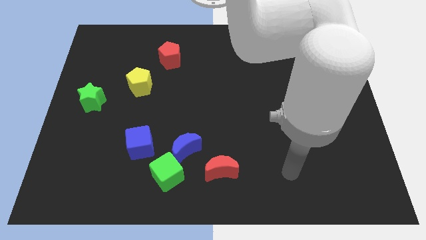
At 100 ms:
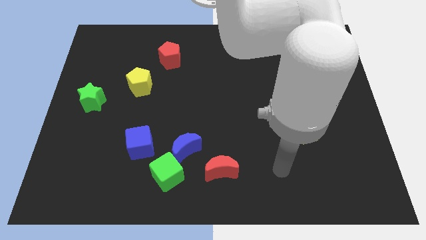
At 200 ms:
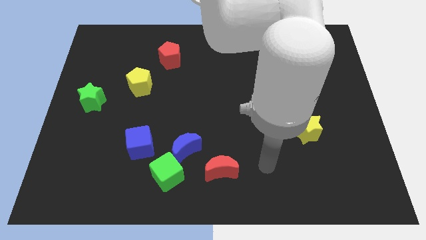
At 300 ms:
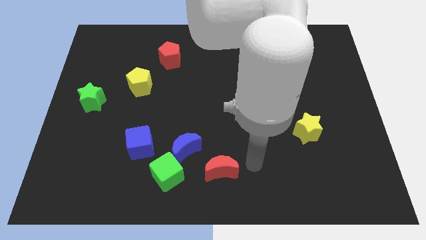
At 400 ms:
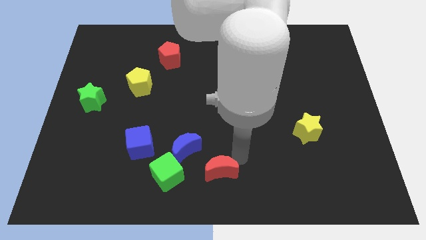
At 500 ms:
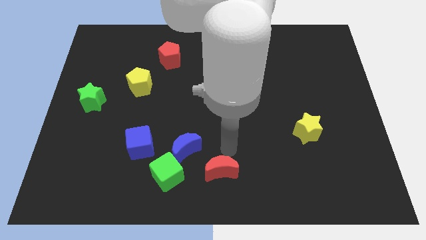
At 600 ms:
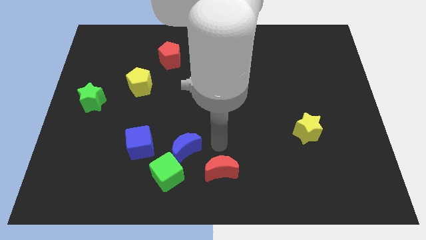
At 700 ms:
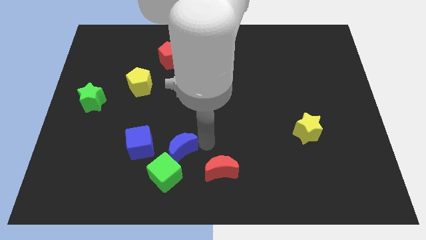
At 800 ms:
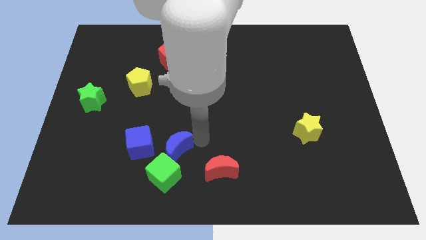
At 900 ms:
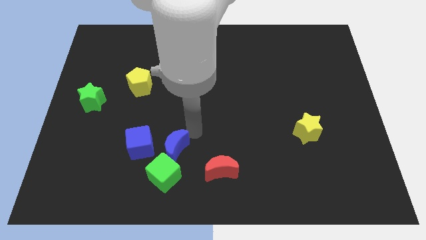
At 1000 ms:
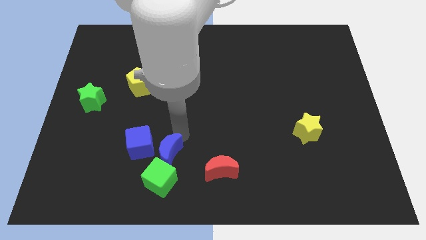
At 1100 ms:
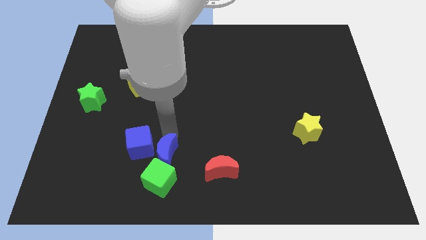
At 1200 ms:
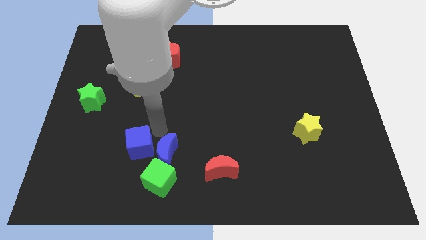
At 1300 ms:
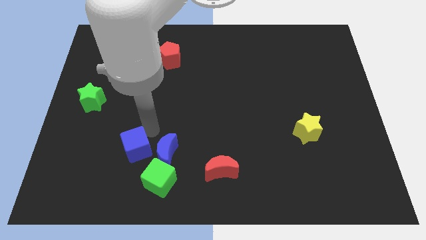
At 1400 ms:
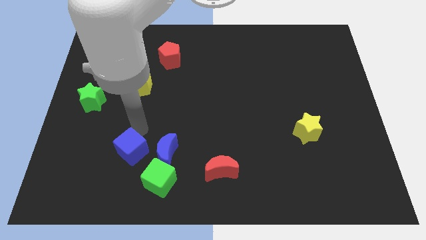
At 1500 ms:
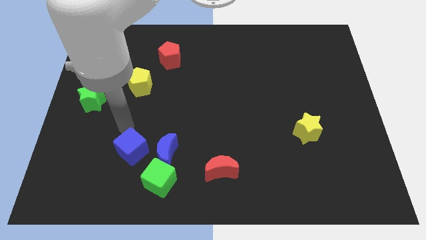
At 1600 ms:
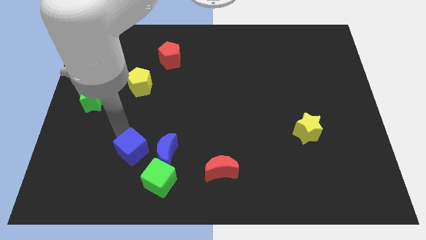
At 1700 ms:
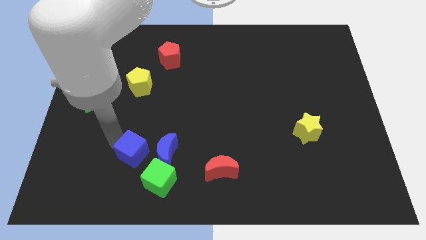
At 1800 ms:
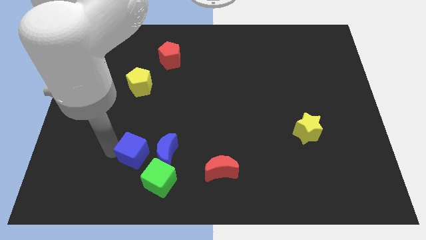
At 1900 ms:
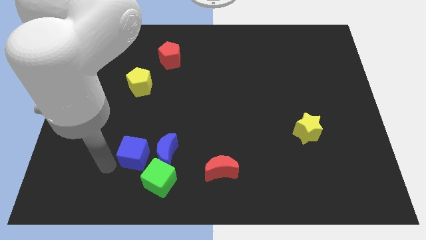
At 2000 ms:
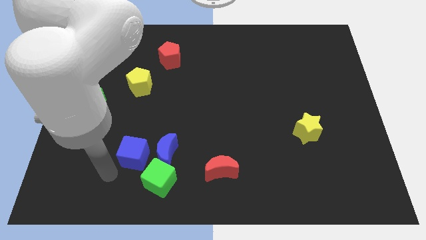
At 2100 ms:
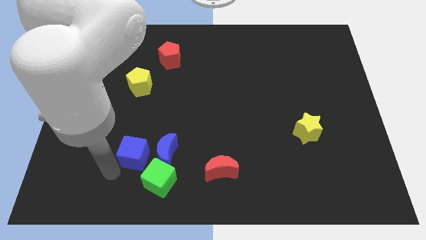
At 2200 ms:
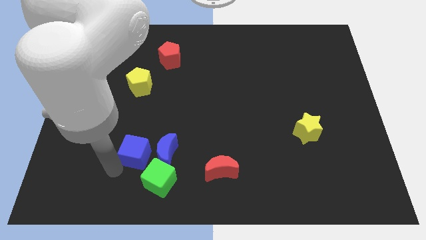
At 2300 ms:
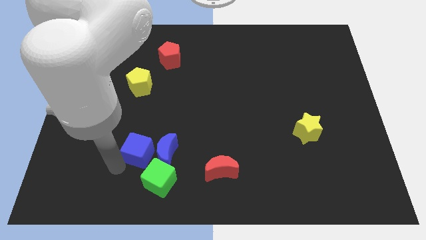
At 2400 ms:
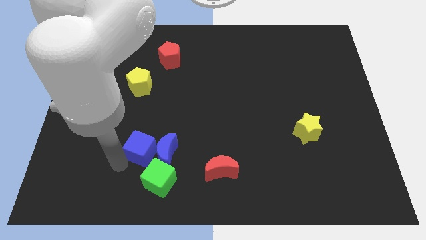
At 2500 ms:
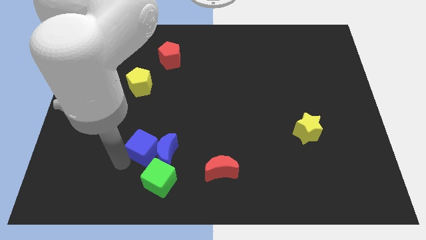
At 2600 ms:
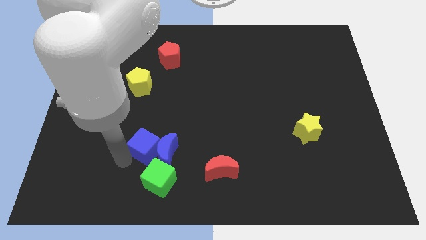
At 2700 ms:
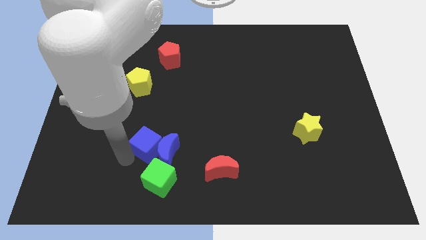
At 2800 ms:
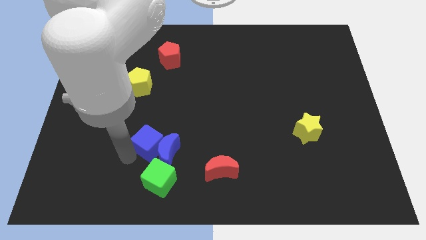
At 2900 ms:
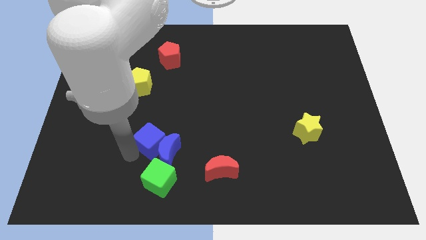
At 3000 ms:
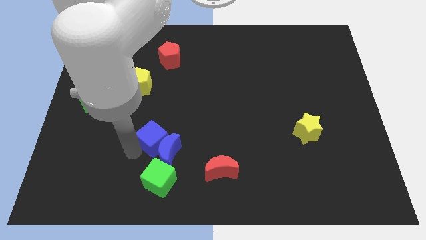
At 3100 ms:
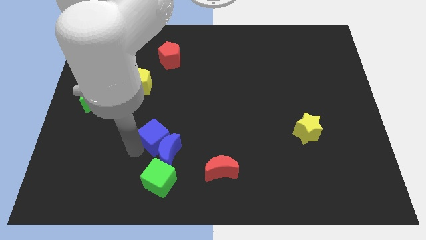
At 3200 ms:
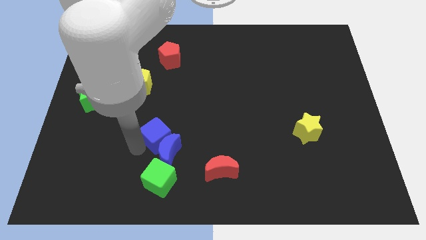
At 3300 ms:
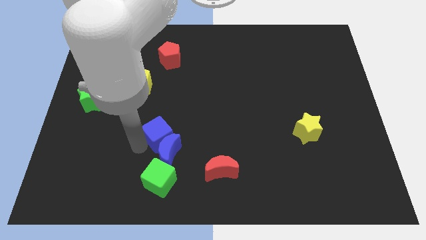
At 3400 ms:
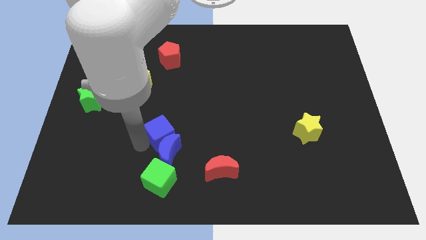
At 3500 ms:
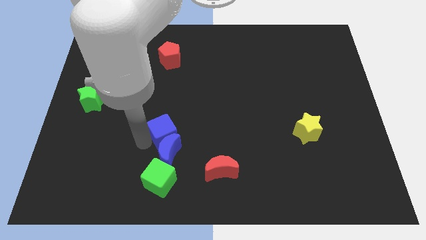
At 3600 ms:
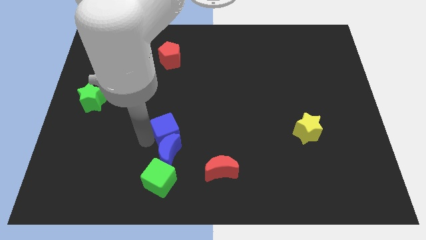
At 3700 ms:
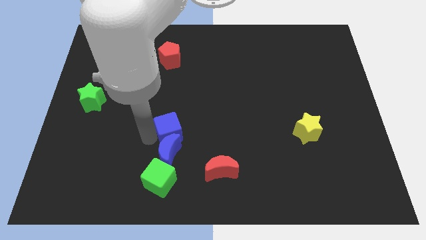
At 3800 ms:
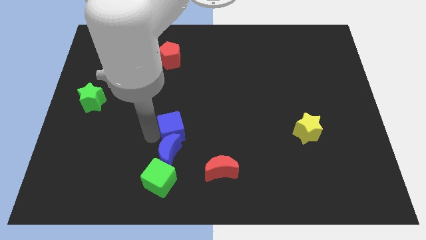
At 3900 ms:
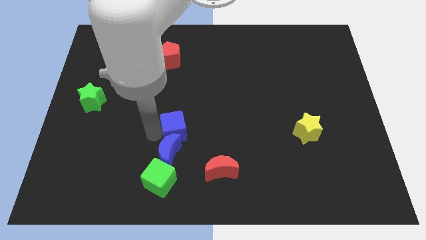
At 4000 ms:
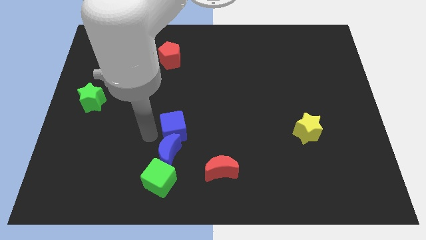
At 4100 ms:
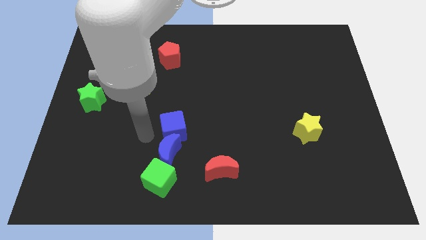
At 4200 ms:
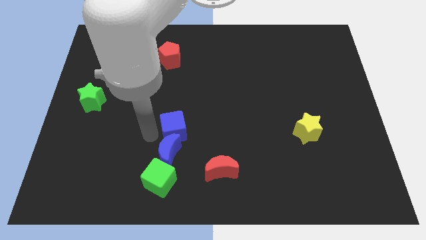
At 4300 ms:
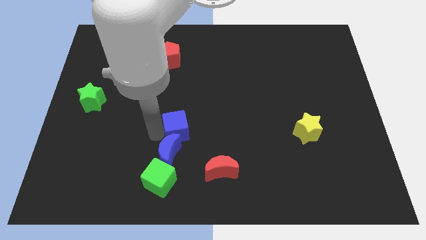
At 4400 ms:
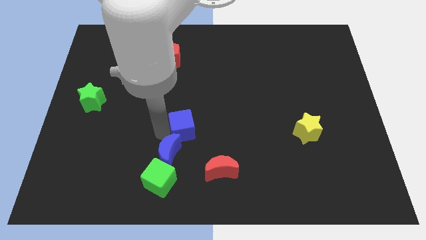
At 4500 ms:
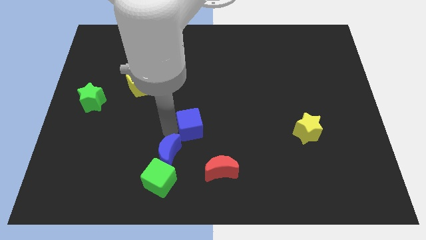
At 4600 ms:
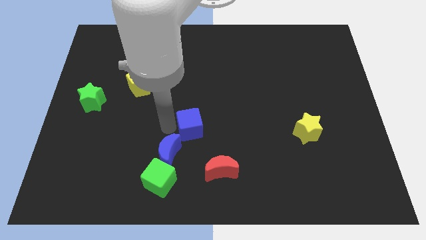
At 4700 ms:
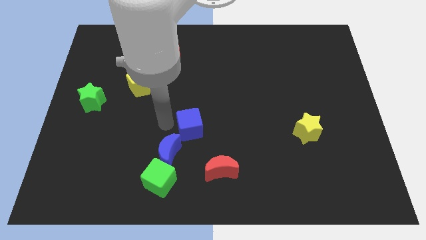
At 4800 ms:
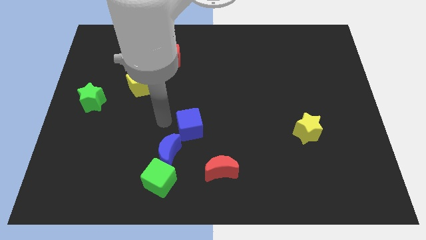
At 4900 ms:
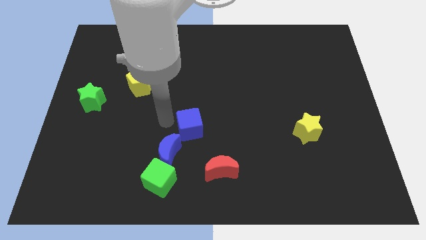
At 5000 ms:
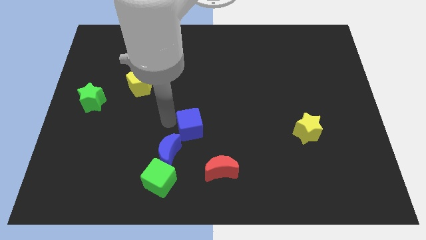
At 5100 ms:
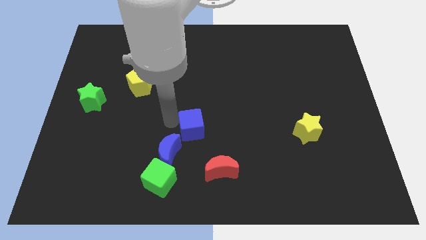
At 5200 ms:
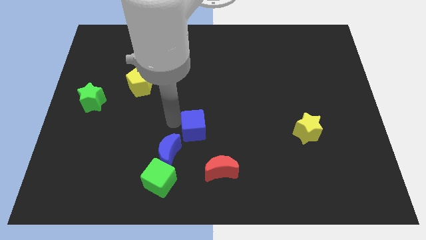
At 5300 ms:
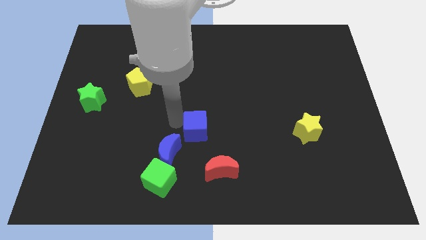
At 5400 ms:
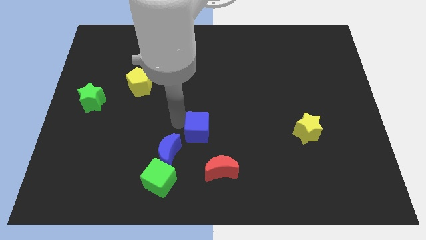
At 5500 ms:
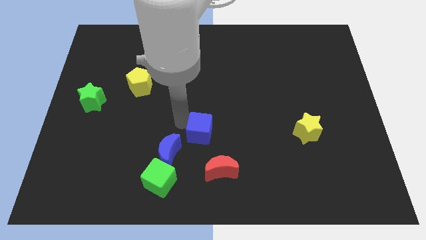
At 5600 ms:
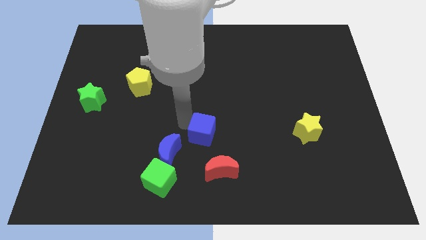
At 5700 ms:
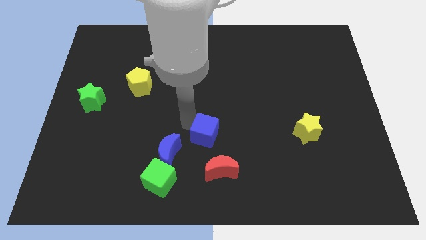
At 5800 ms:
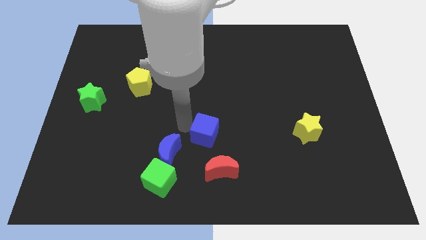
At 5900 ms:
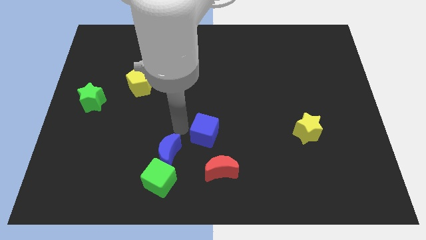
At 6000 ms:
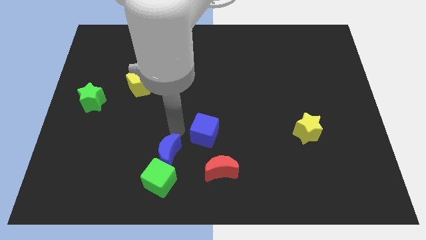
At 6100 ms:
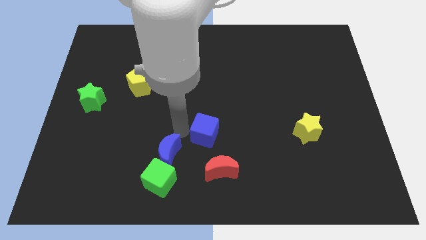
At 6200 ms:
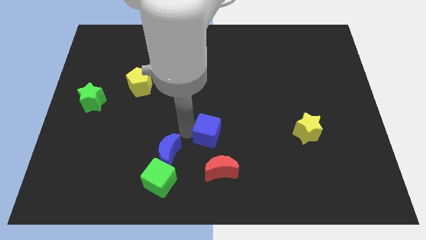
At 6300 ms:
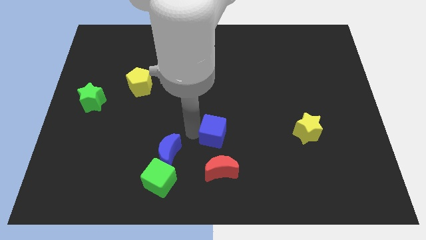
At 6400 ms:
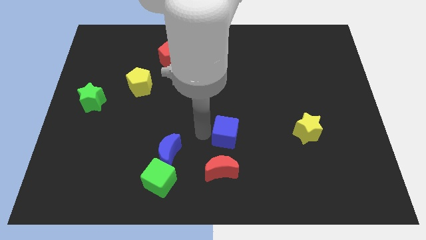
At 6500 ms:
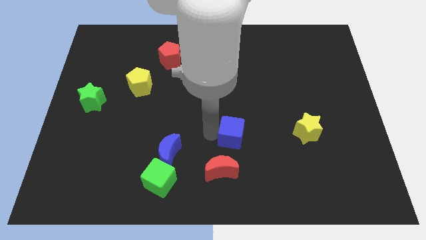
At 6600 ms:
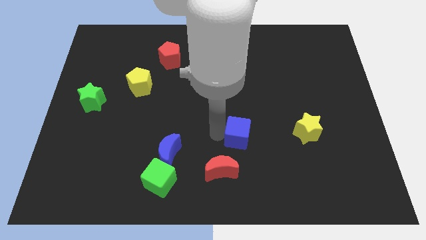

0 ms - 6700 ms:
push the blue cube to the right

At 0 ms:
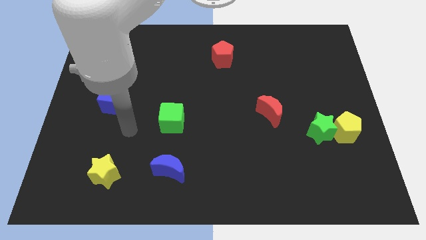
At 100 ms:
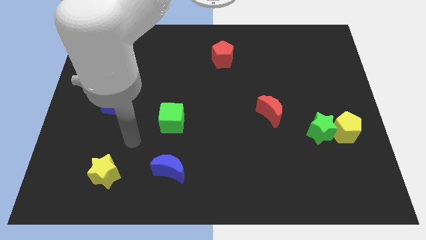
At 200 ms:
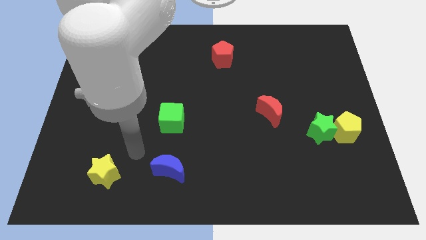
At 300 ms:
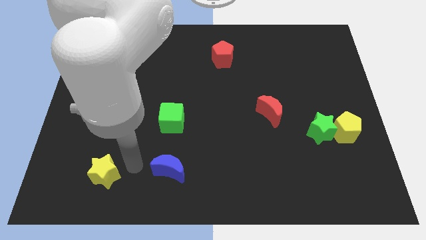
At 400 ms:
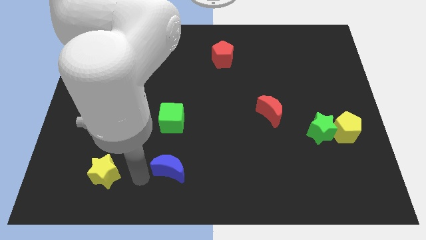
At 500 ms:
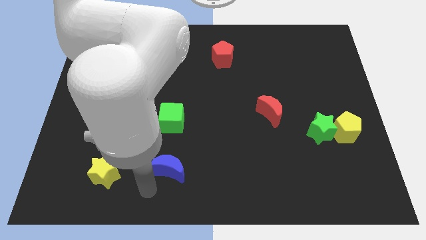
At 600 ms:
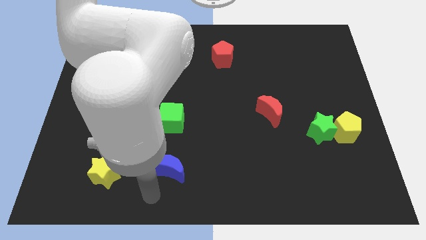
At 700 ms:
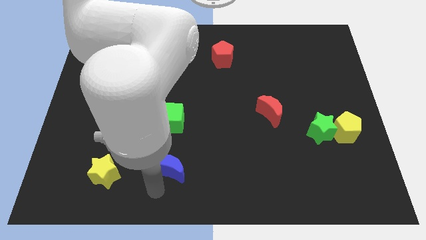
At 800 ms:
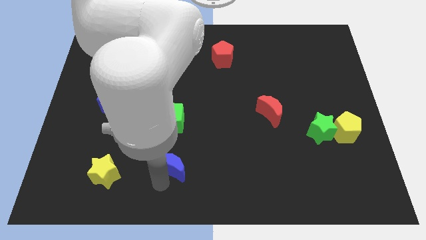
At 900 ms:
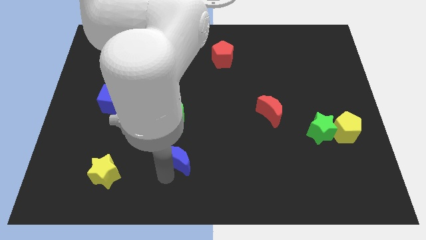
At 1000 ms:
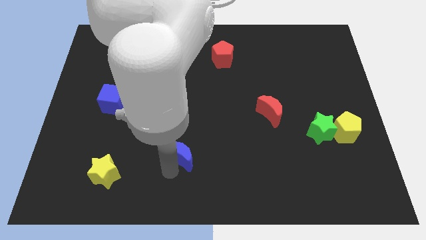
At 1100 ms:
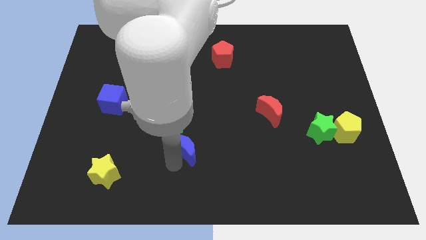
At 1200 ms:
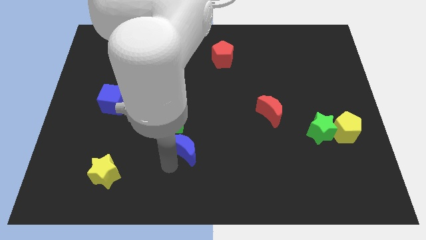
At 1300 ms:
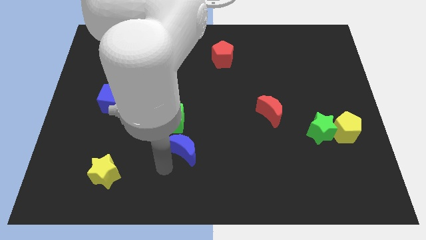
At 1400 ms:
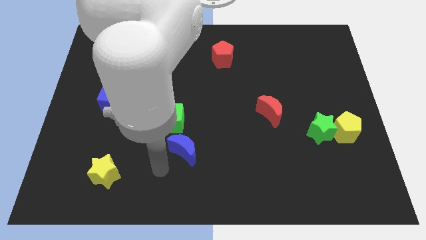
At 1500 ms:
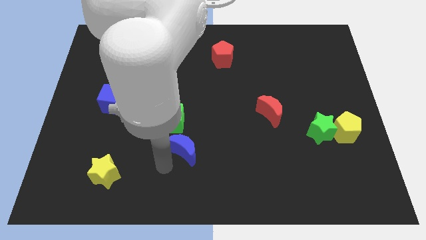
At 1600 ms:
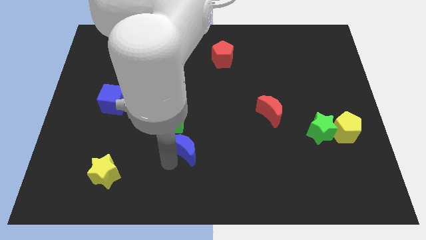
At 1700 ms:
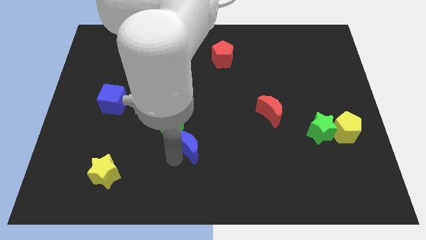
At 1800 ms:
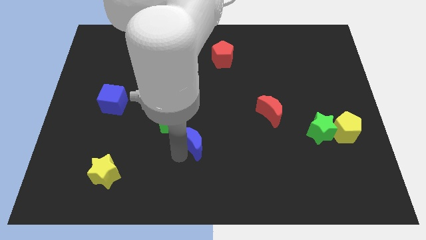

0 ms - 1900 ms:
push the blue moon a little up and then right
